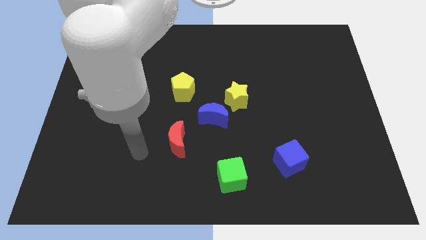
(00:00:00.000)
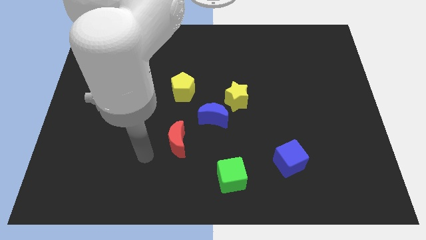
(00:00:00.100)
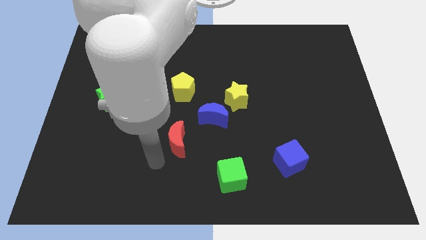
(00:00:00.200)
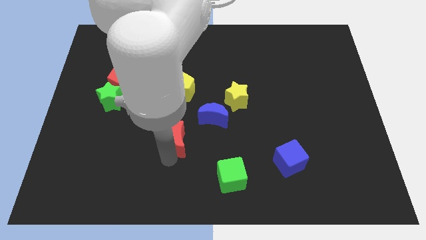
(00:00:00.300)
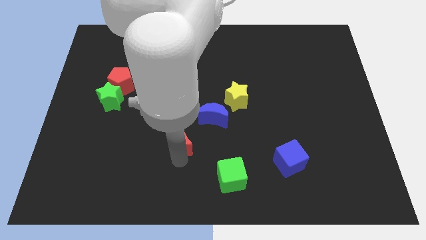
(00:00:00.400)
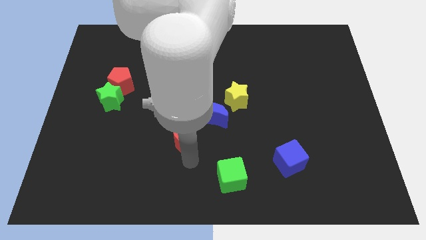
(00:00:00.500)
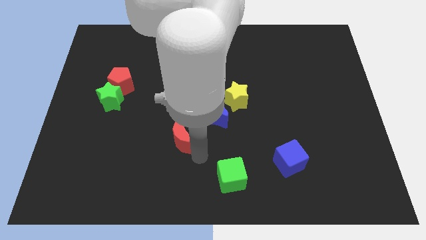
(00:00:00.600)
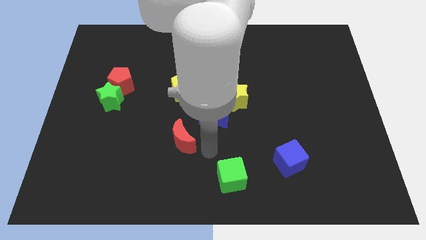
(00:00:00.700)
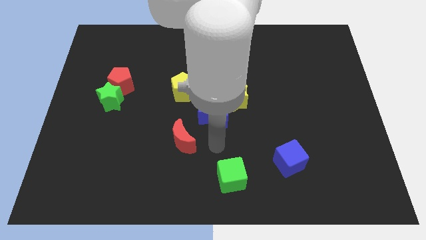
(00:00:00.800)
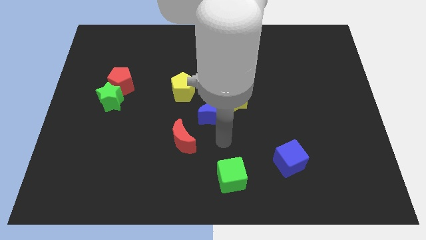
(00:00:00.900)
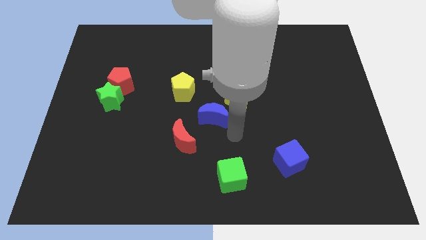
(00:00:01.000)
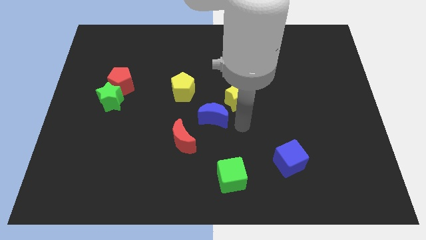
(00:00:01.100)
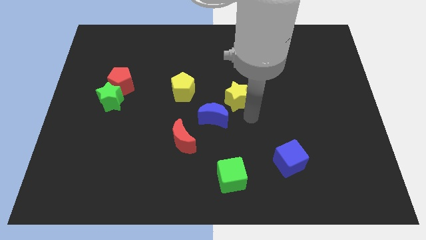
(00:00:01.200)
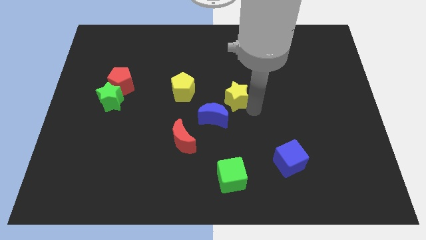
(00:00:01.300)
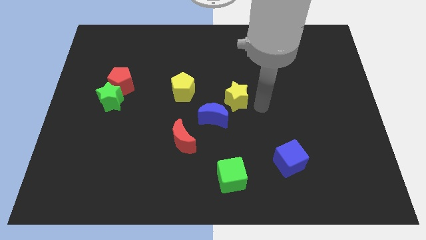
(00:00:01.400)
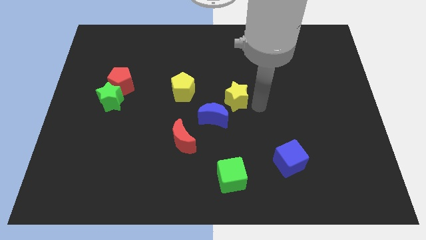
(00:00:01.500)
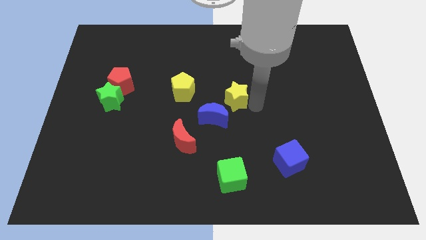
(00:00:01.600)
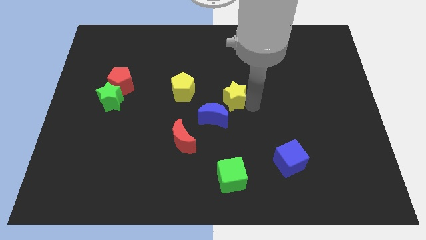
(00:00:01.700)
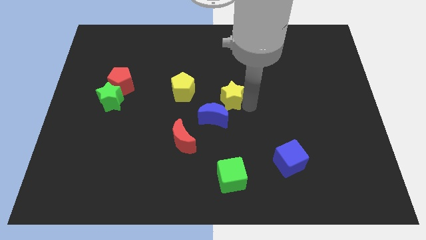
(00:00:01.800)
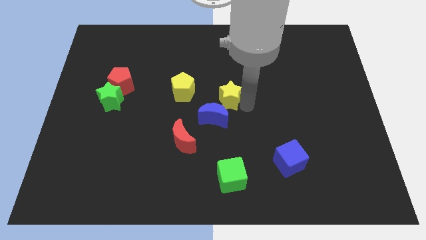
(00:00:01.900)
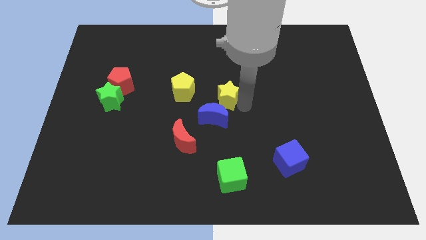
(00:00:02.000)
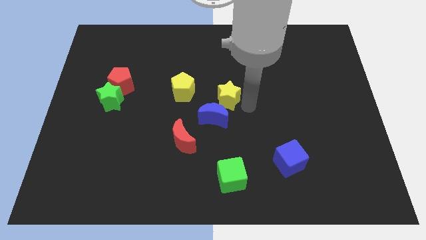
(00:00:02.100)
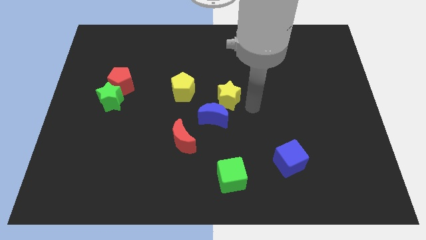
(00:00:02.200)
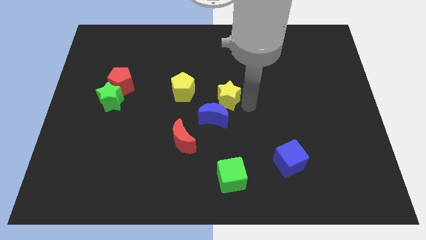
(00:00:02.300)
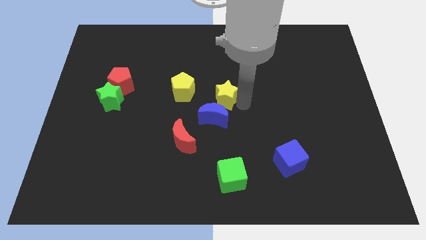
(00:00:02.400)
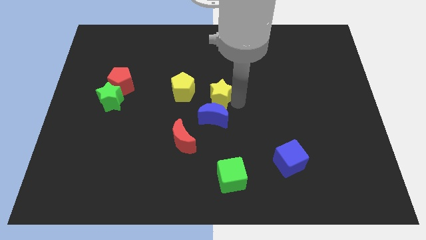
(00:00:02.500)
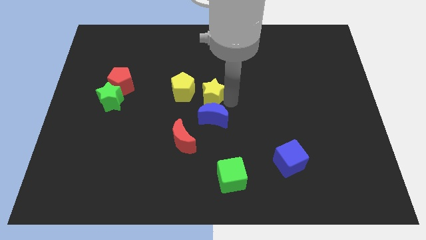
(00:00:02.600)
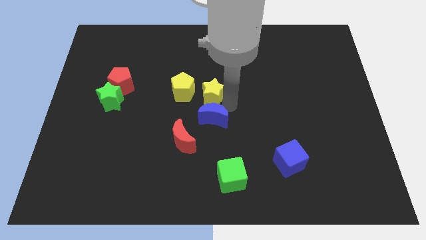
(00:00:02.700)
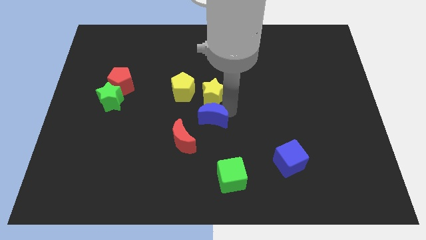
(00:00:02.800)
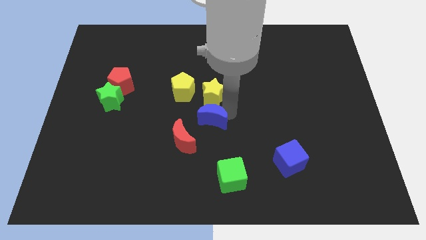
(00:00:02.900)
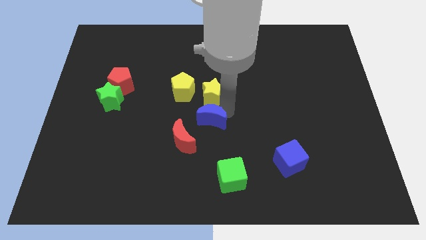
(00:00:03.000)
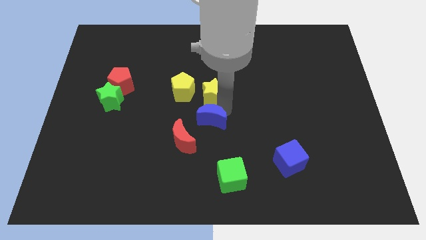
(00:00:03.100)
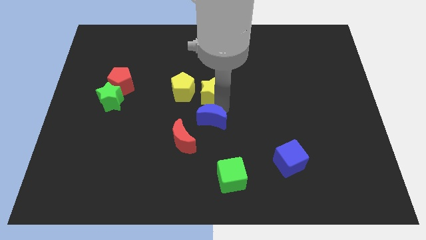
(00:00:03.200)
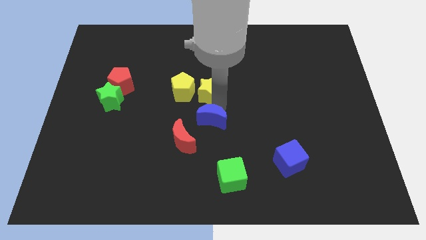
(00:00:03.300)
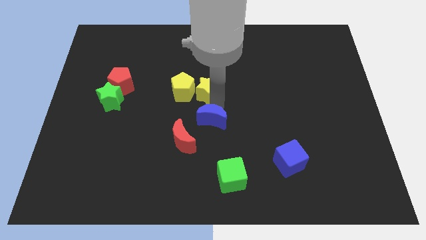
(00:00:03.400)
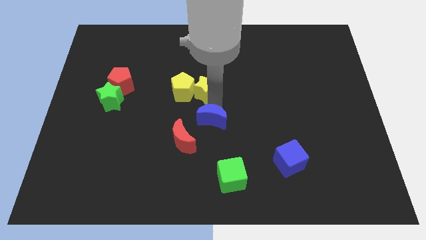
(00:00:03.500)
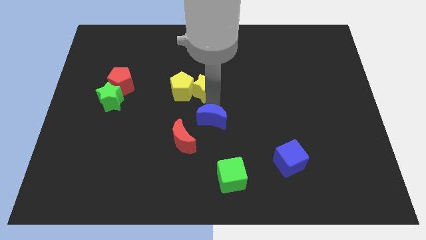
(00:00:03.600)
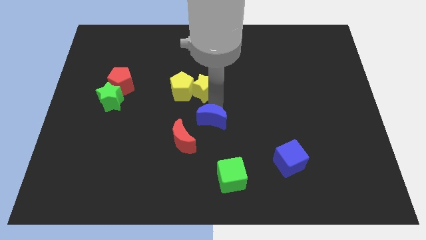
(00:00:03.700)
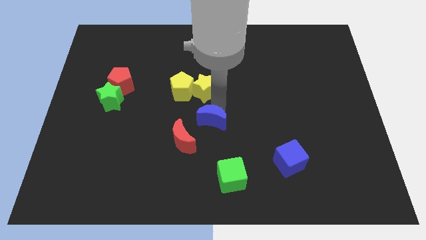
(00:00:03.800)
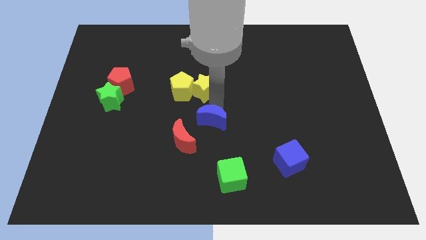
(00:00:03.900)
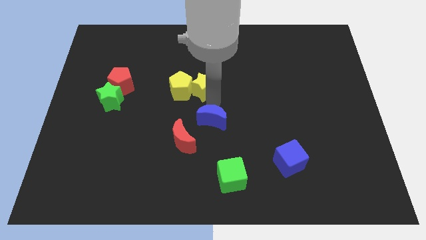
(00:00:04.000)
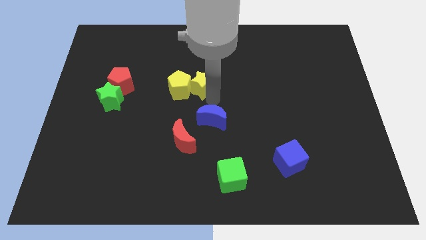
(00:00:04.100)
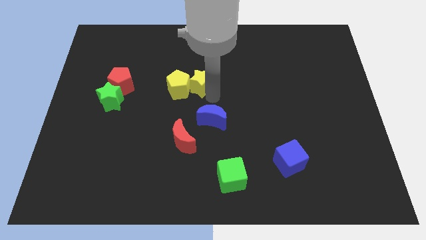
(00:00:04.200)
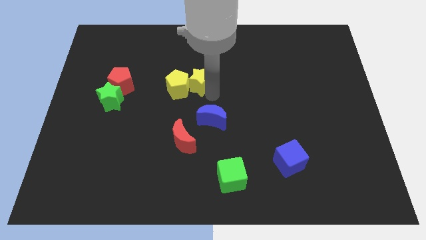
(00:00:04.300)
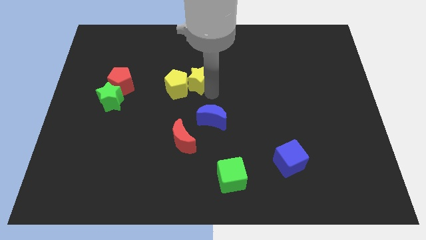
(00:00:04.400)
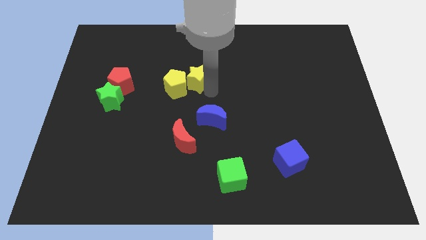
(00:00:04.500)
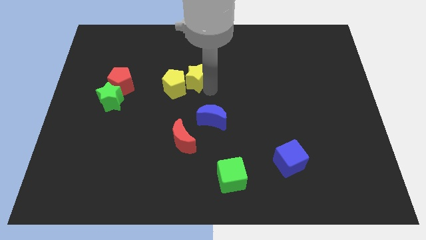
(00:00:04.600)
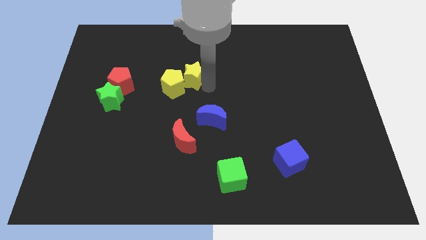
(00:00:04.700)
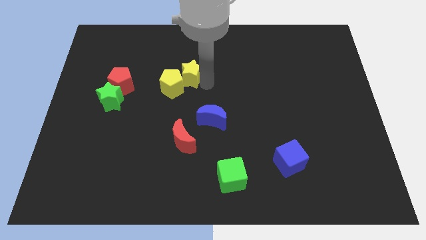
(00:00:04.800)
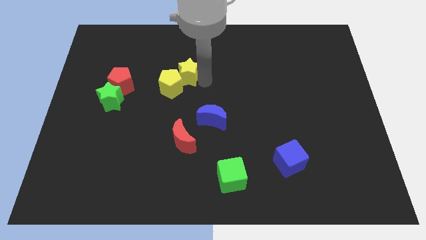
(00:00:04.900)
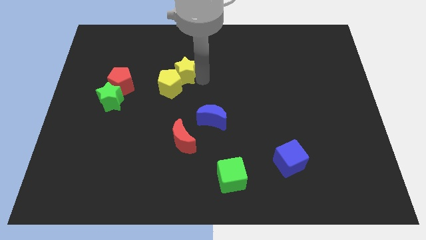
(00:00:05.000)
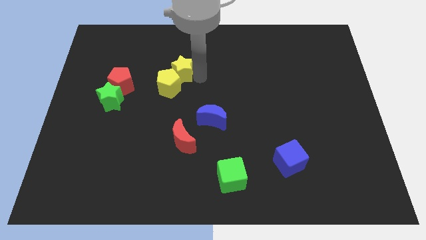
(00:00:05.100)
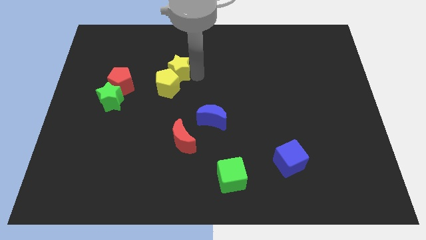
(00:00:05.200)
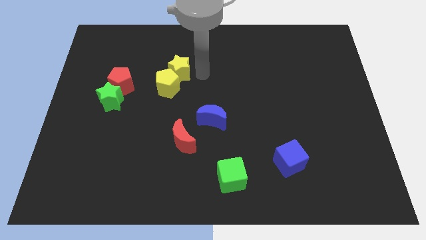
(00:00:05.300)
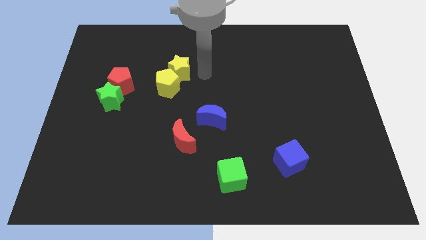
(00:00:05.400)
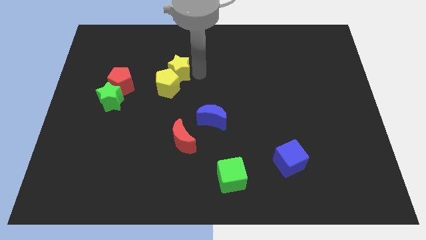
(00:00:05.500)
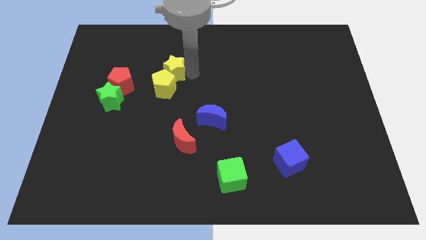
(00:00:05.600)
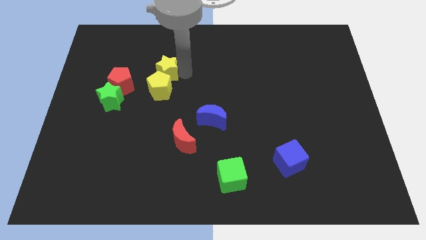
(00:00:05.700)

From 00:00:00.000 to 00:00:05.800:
push the yellow star to the top left side of the yellow pentagon

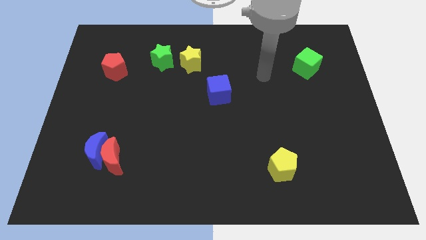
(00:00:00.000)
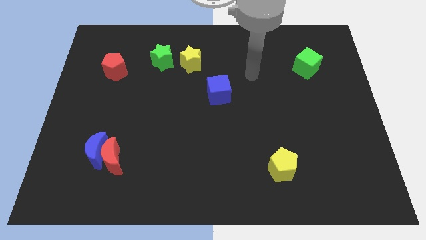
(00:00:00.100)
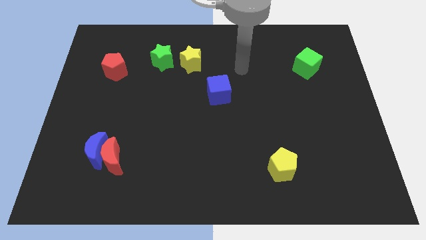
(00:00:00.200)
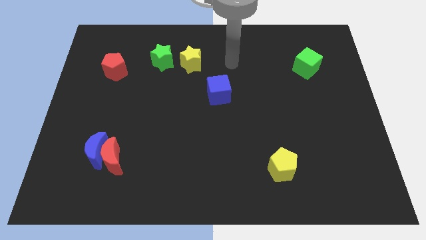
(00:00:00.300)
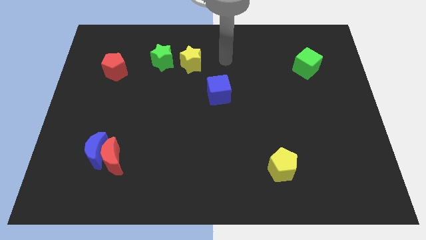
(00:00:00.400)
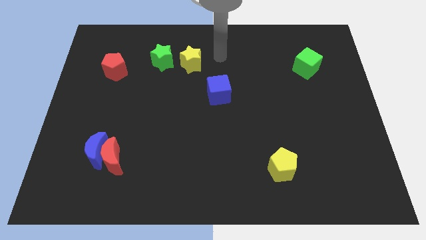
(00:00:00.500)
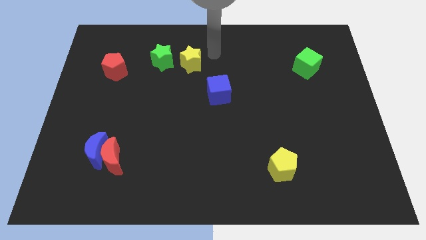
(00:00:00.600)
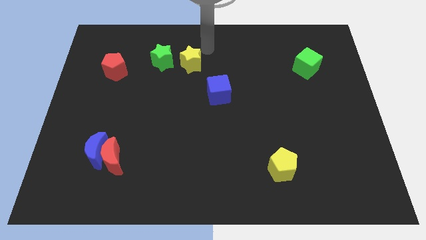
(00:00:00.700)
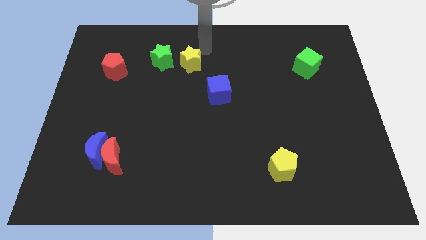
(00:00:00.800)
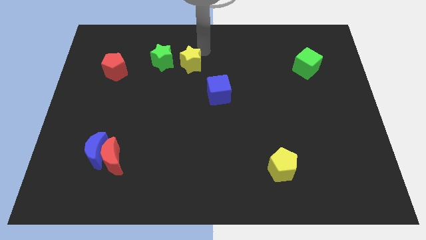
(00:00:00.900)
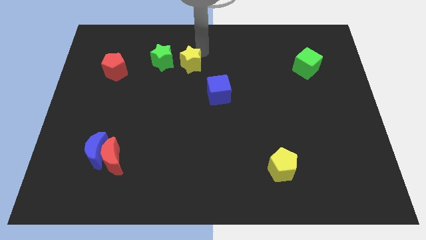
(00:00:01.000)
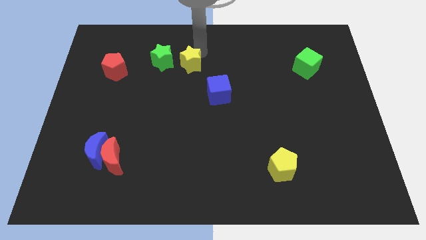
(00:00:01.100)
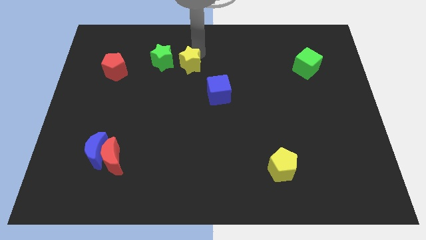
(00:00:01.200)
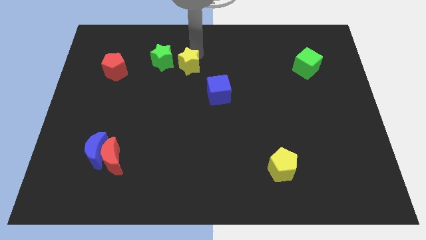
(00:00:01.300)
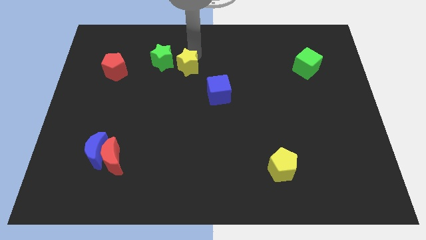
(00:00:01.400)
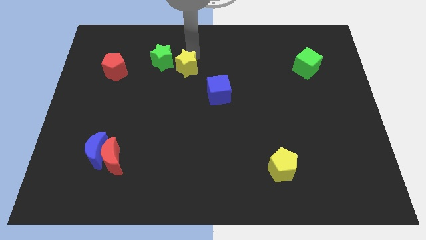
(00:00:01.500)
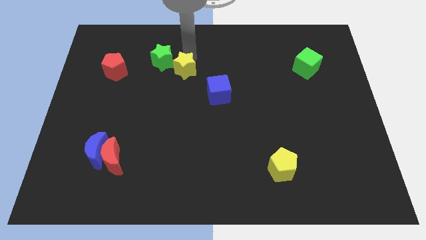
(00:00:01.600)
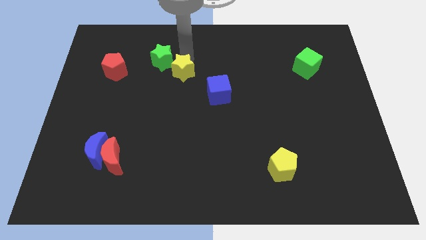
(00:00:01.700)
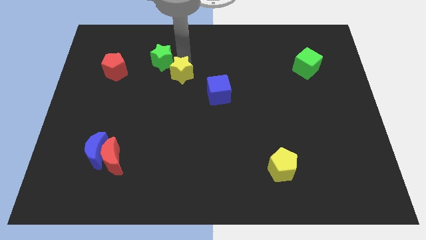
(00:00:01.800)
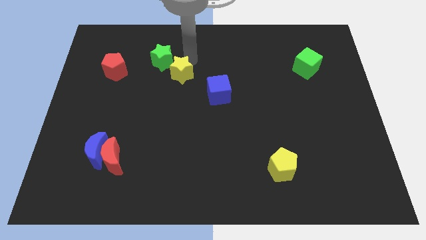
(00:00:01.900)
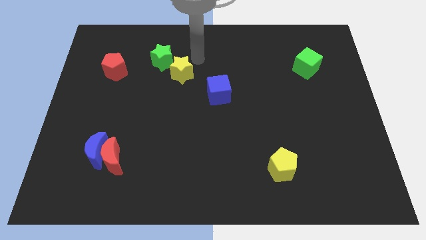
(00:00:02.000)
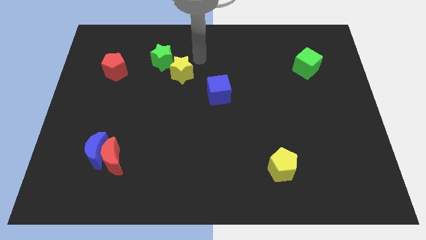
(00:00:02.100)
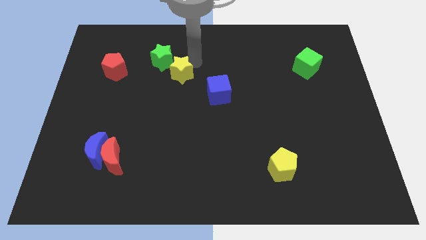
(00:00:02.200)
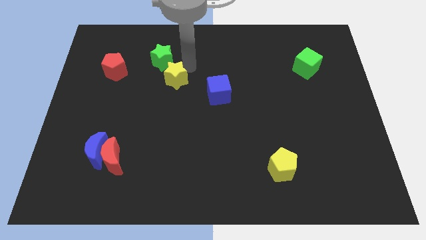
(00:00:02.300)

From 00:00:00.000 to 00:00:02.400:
slide the yellow star to the bottom side of the green star
